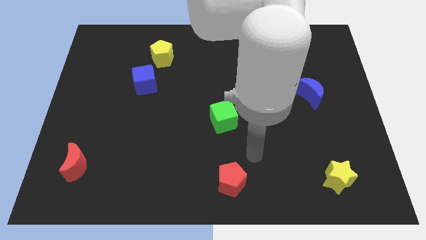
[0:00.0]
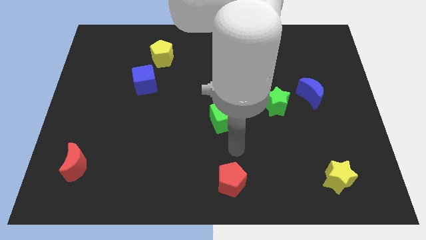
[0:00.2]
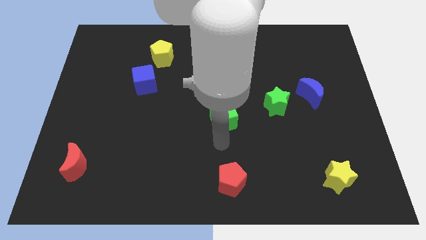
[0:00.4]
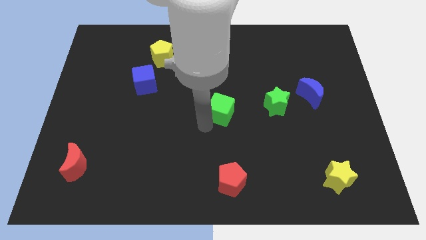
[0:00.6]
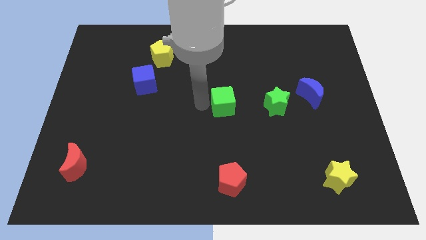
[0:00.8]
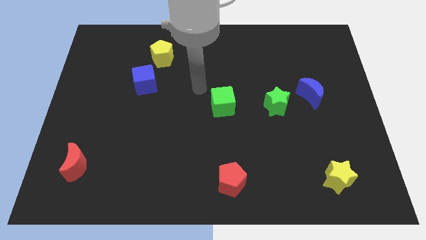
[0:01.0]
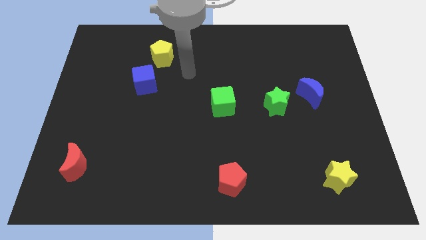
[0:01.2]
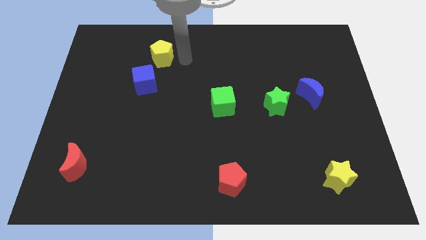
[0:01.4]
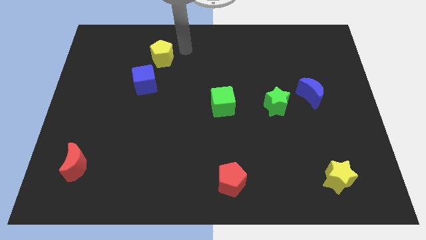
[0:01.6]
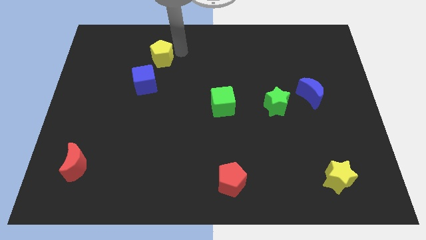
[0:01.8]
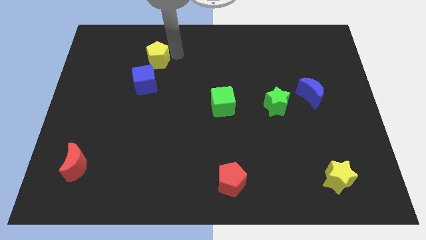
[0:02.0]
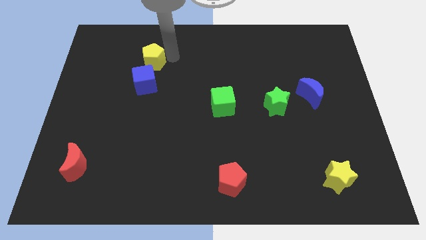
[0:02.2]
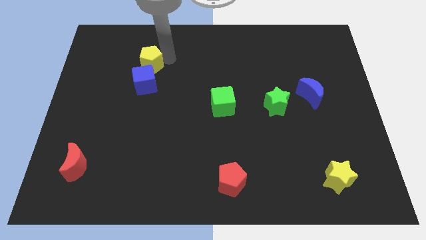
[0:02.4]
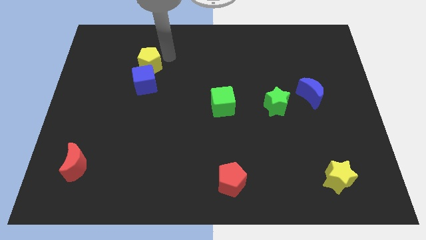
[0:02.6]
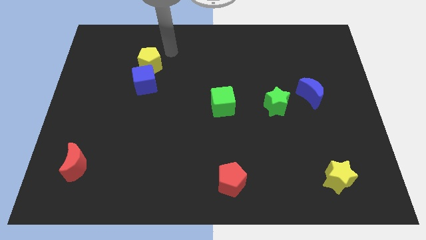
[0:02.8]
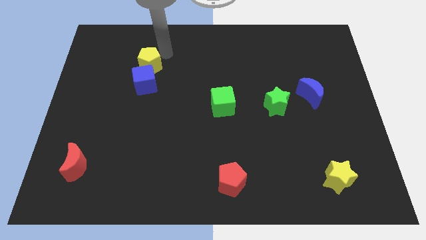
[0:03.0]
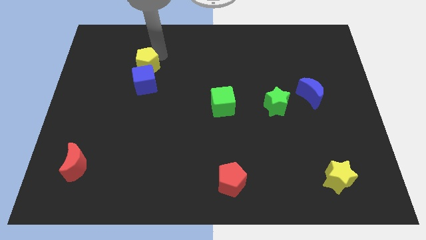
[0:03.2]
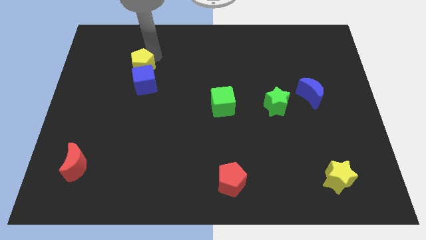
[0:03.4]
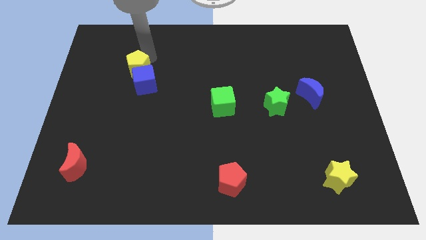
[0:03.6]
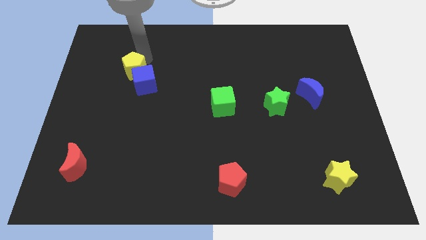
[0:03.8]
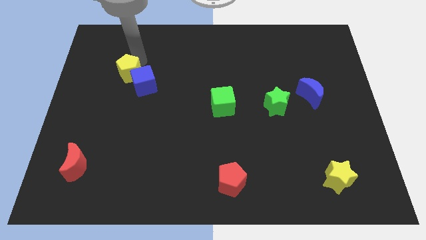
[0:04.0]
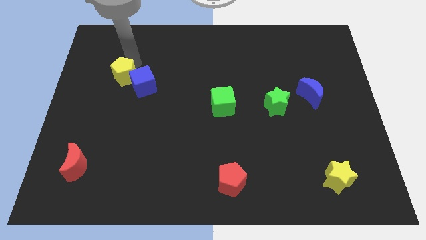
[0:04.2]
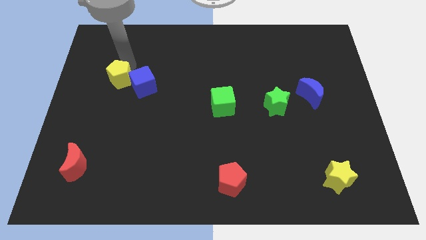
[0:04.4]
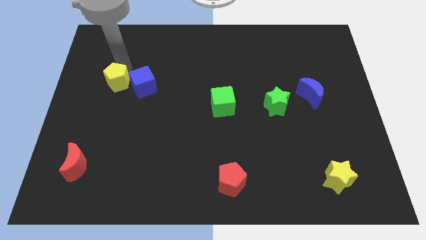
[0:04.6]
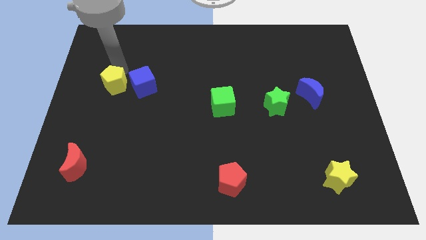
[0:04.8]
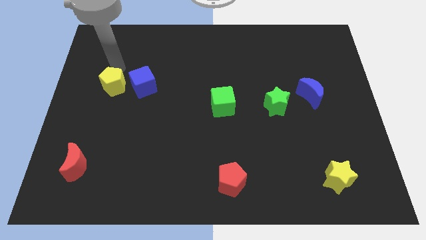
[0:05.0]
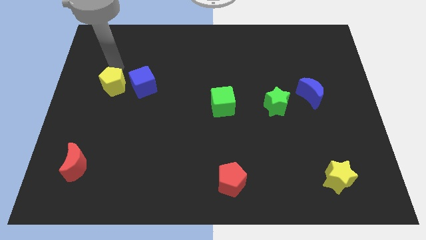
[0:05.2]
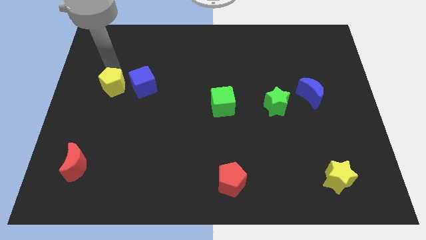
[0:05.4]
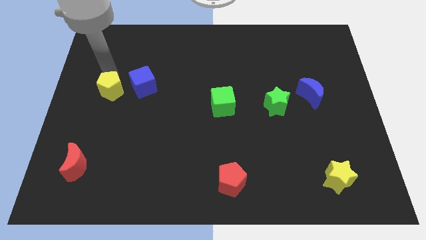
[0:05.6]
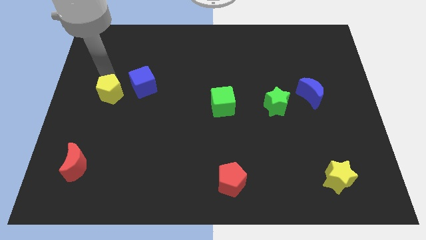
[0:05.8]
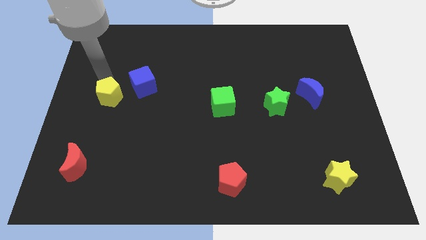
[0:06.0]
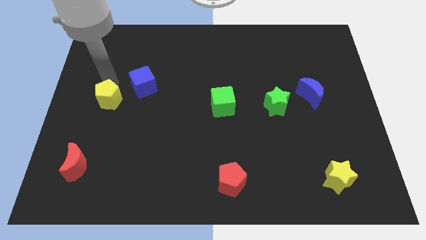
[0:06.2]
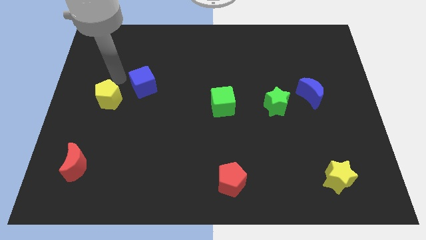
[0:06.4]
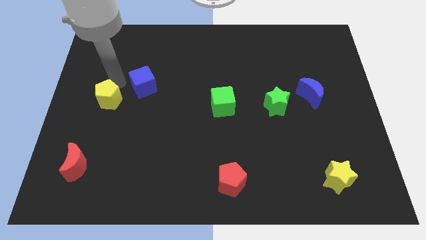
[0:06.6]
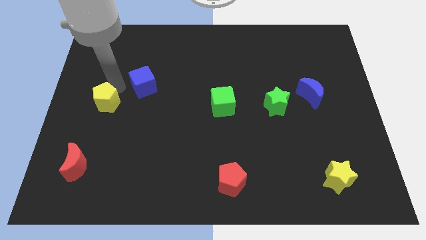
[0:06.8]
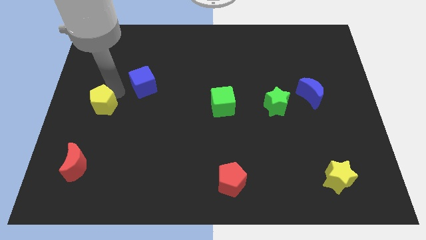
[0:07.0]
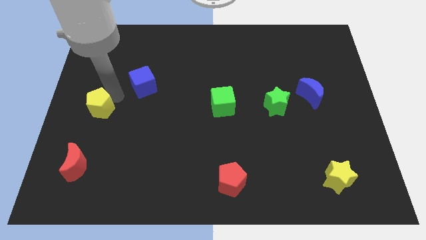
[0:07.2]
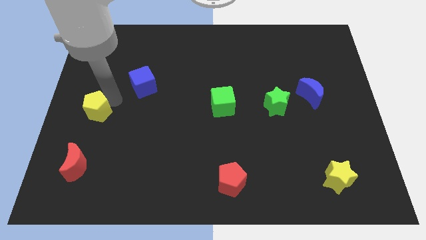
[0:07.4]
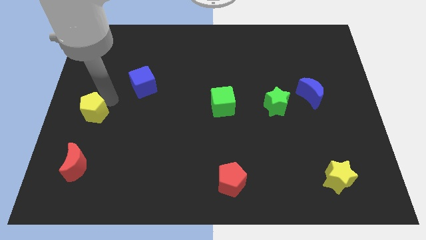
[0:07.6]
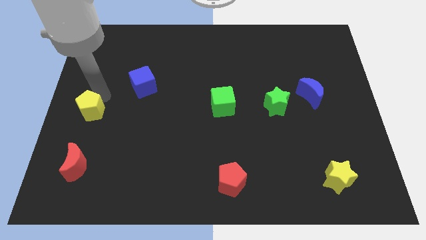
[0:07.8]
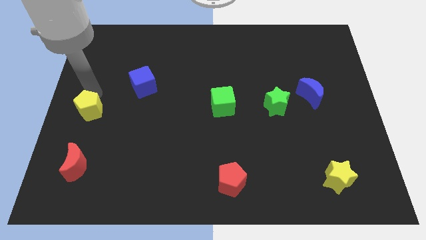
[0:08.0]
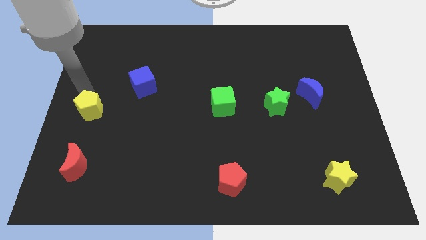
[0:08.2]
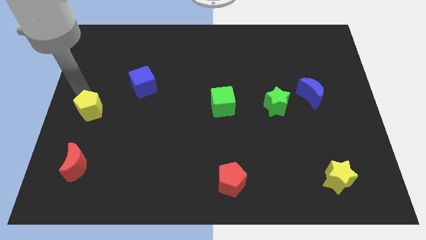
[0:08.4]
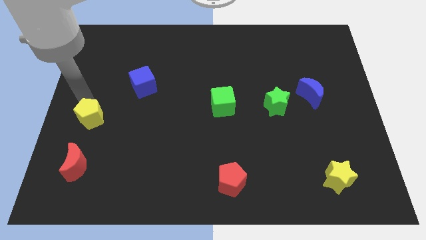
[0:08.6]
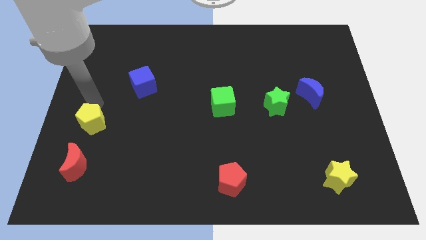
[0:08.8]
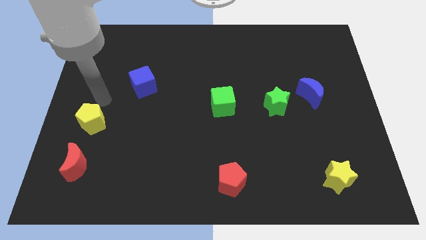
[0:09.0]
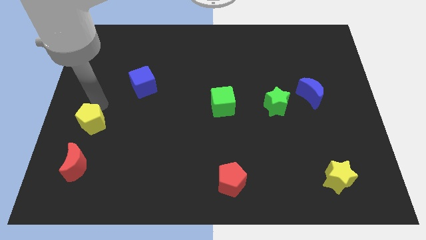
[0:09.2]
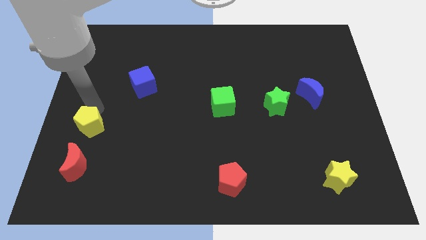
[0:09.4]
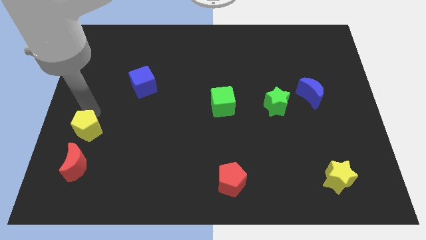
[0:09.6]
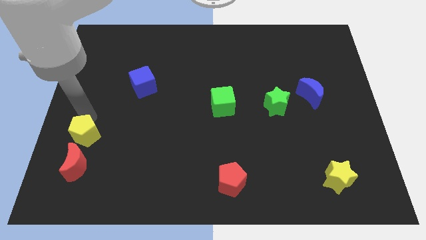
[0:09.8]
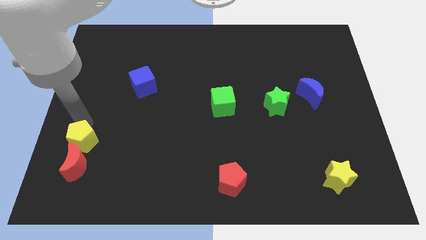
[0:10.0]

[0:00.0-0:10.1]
slide the yellow pentagon close to the red moon

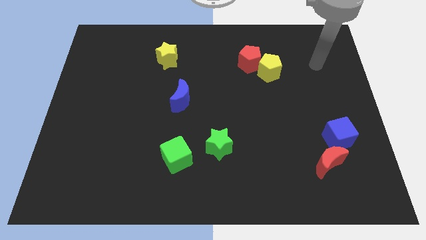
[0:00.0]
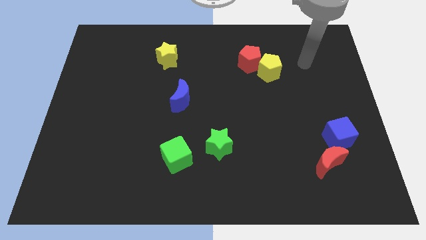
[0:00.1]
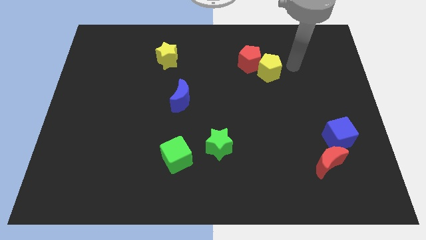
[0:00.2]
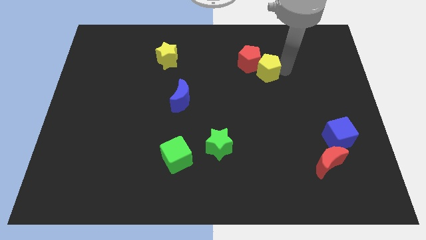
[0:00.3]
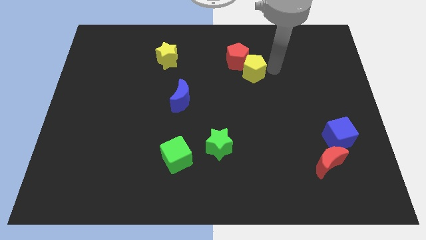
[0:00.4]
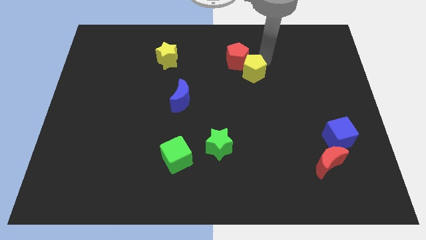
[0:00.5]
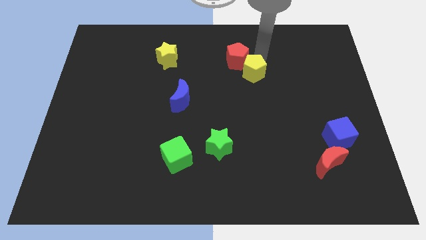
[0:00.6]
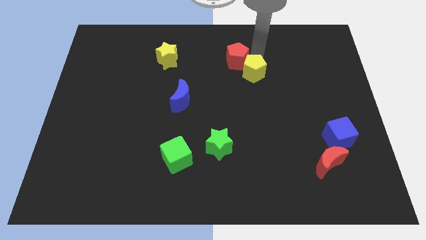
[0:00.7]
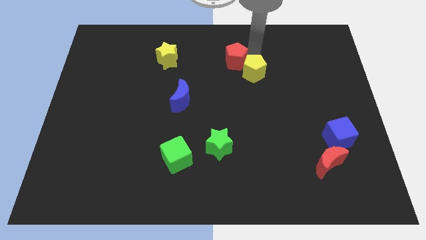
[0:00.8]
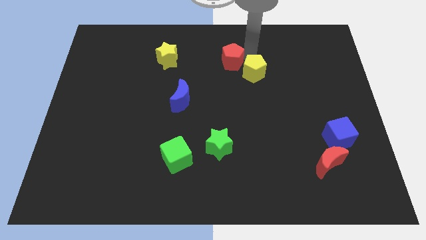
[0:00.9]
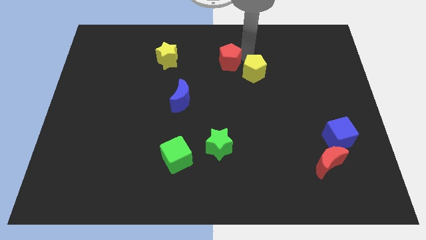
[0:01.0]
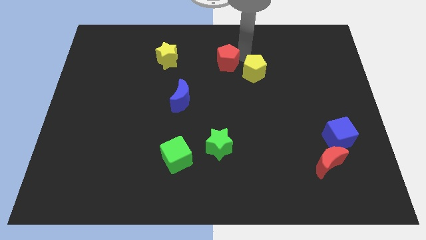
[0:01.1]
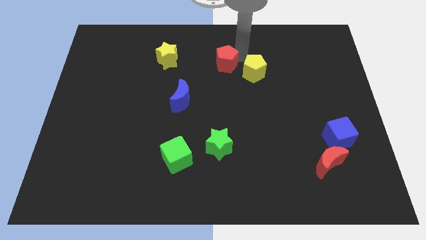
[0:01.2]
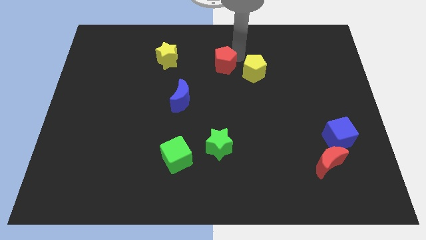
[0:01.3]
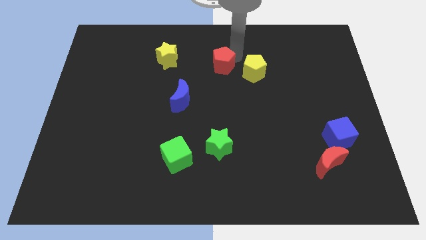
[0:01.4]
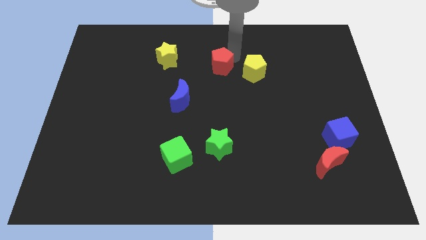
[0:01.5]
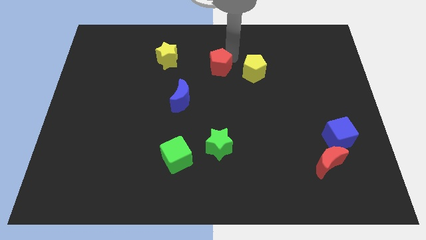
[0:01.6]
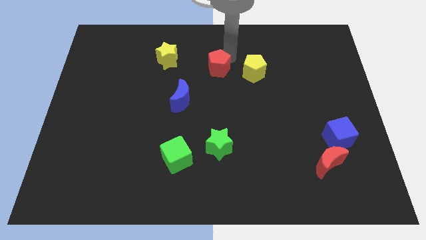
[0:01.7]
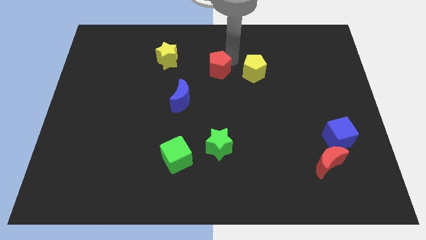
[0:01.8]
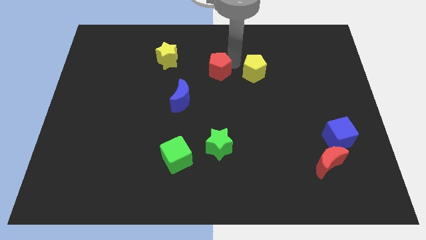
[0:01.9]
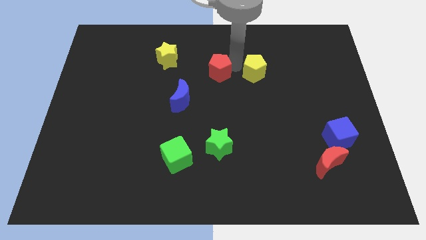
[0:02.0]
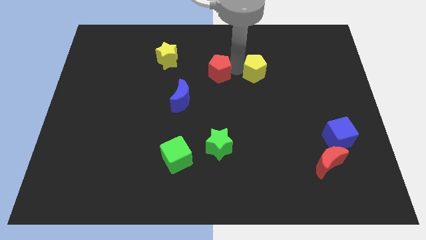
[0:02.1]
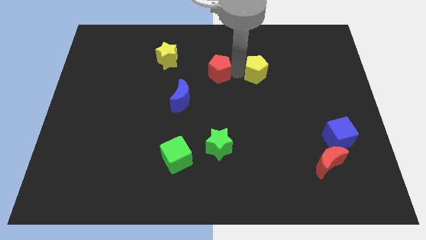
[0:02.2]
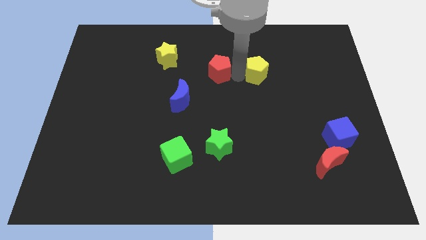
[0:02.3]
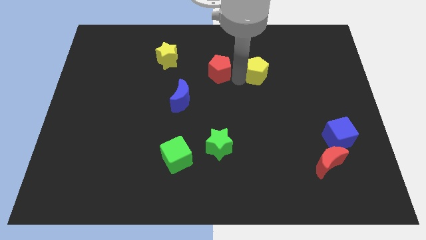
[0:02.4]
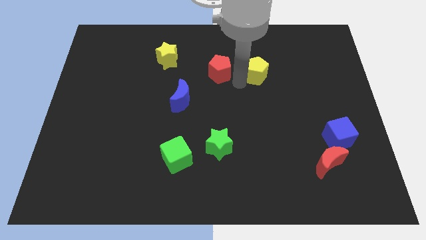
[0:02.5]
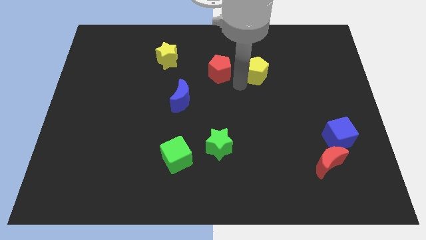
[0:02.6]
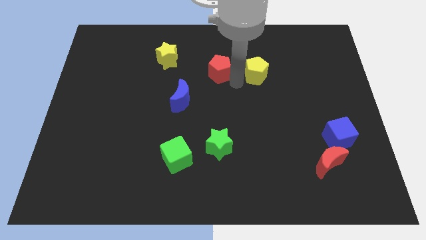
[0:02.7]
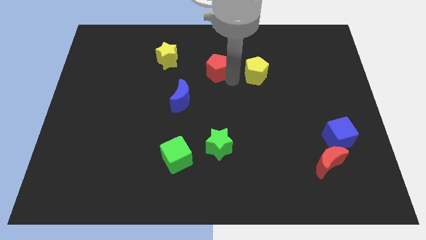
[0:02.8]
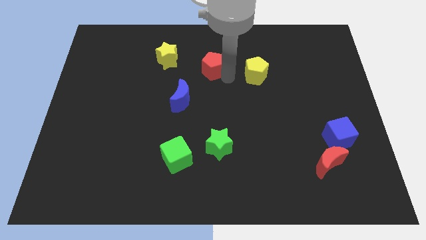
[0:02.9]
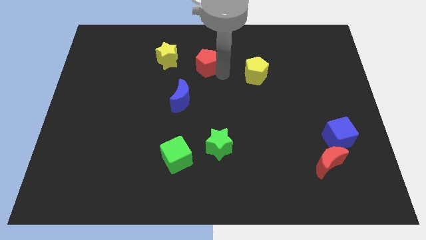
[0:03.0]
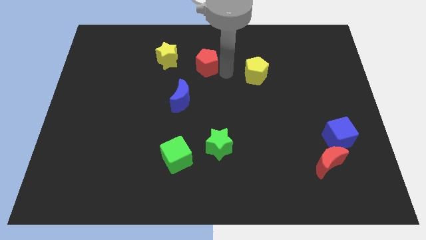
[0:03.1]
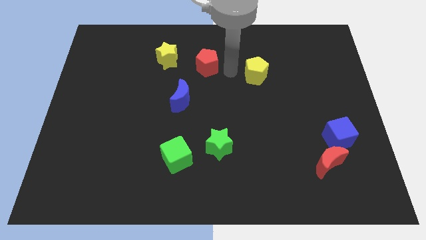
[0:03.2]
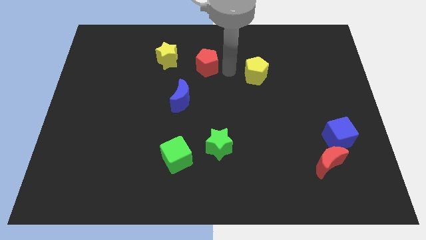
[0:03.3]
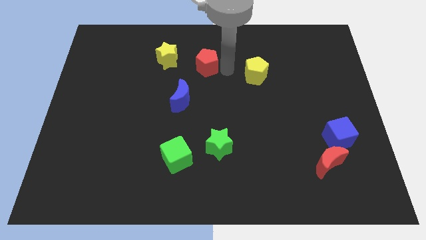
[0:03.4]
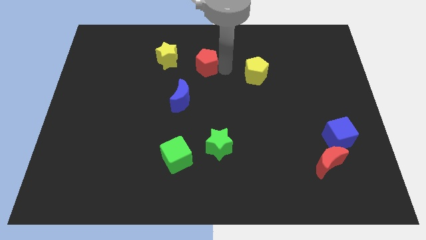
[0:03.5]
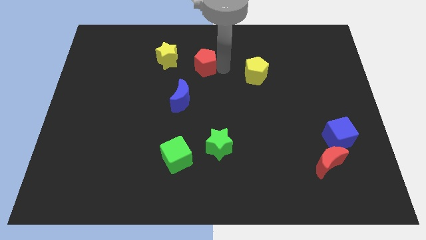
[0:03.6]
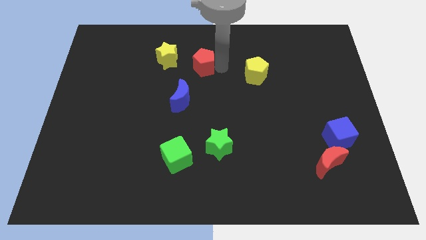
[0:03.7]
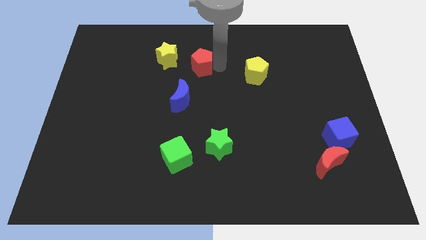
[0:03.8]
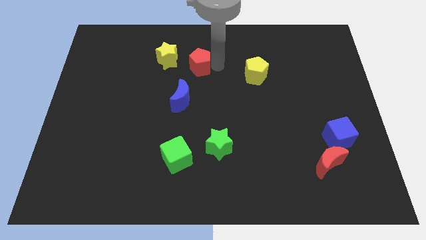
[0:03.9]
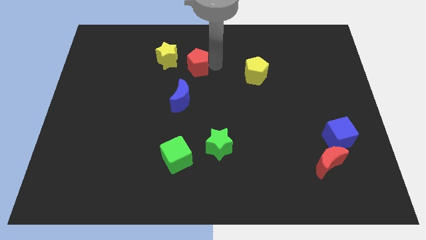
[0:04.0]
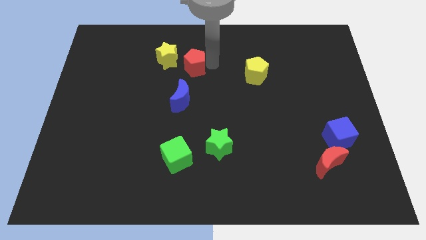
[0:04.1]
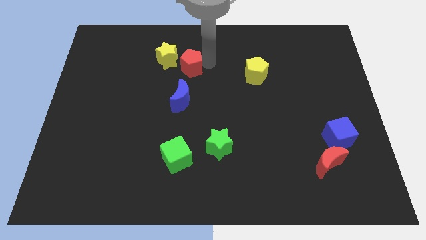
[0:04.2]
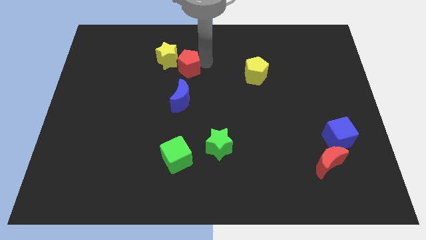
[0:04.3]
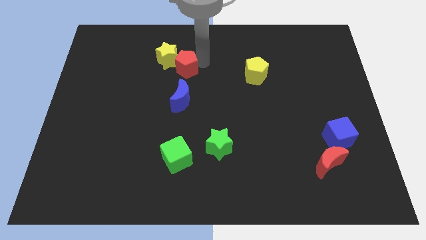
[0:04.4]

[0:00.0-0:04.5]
put the red pentagon close to the yellow star
